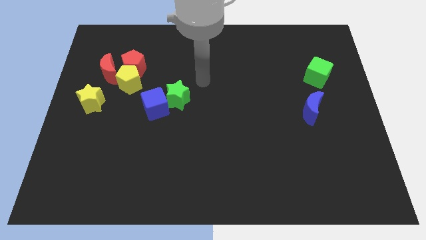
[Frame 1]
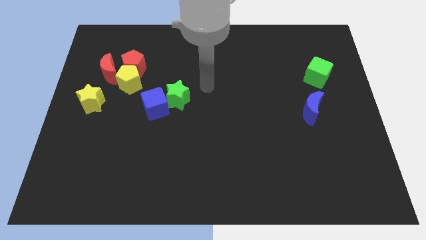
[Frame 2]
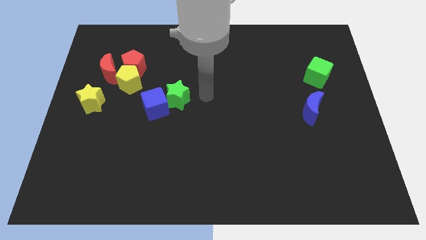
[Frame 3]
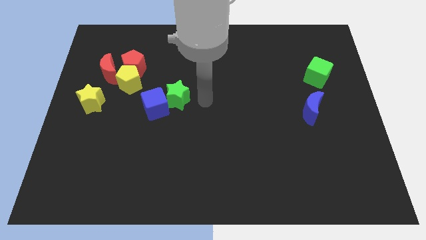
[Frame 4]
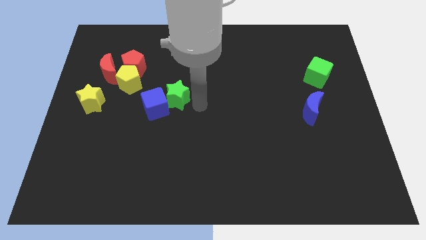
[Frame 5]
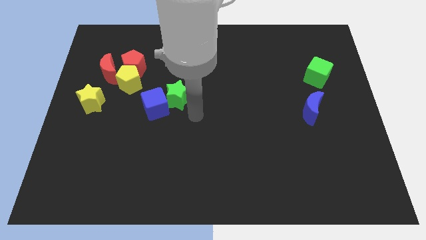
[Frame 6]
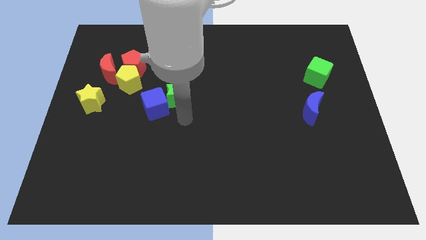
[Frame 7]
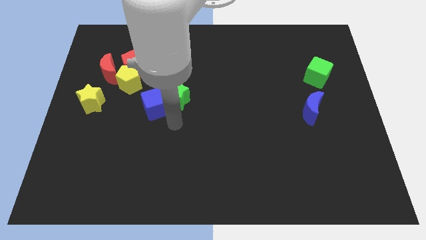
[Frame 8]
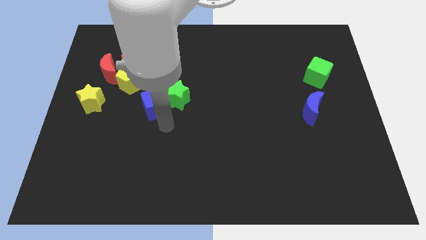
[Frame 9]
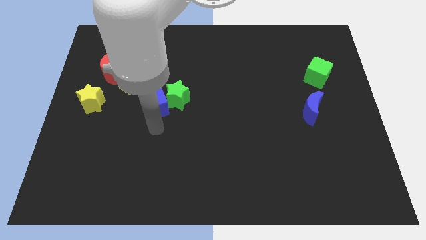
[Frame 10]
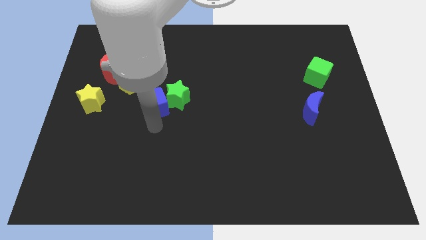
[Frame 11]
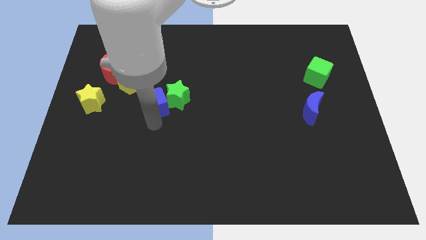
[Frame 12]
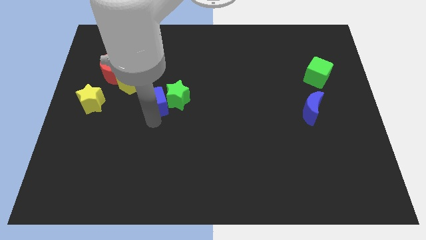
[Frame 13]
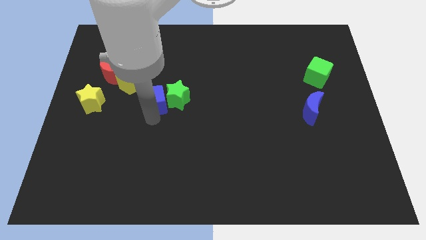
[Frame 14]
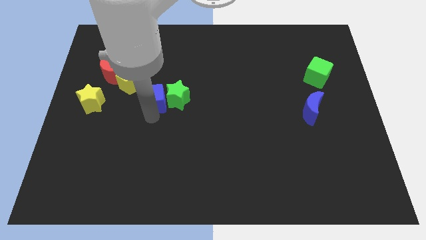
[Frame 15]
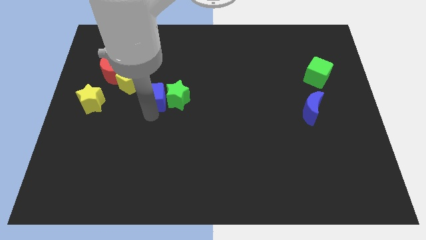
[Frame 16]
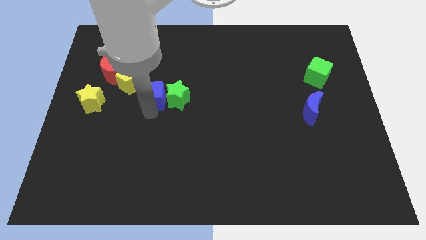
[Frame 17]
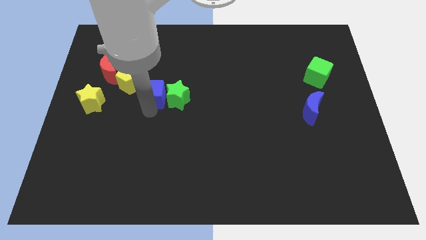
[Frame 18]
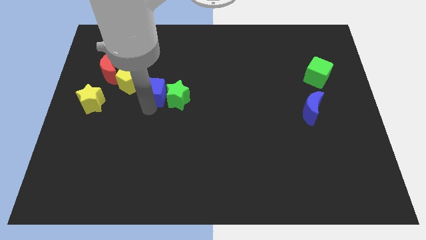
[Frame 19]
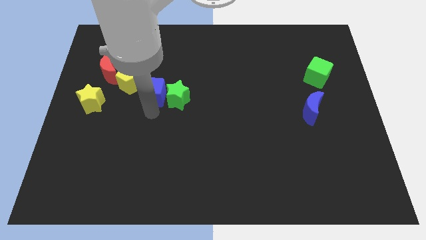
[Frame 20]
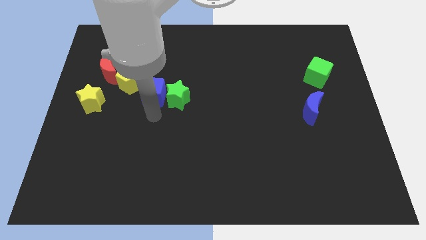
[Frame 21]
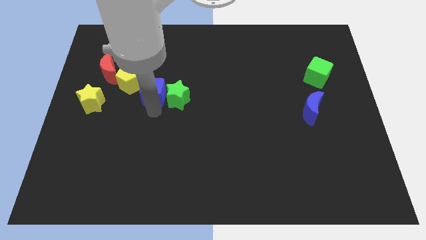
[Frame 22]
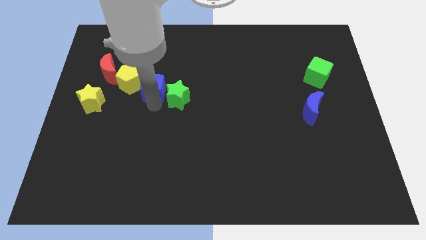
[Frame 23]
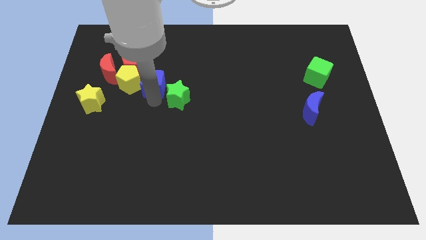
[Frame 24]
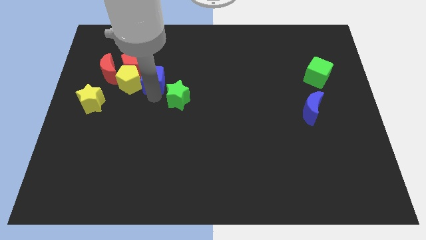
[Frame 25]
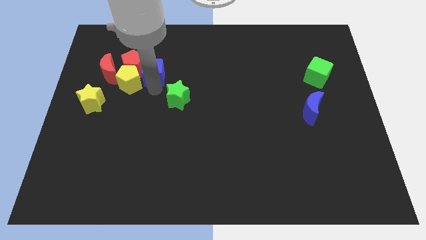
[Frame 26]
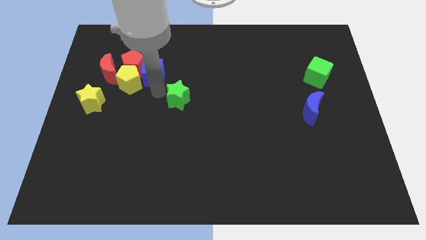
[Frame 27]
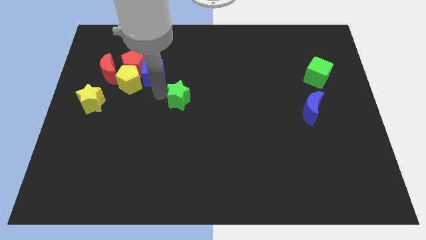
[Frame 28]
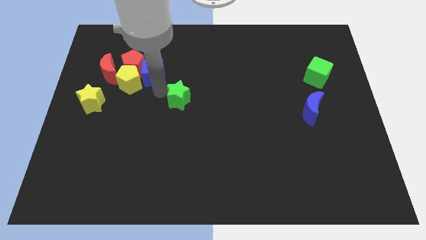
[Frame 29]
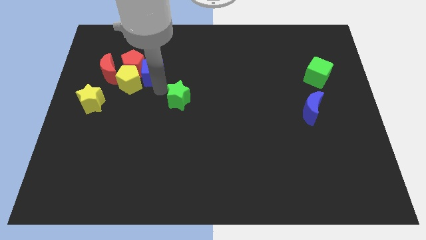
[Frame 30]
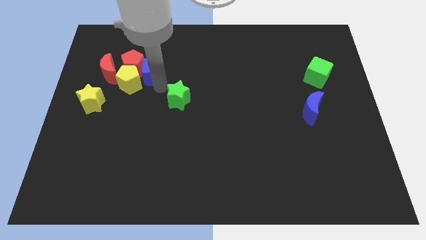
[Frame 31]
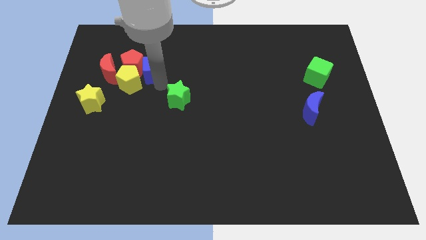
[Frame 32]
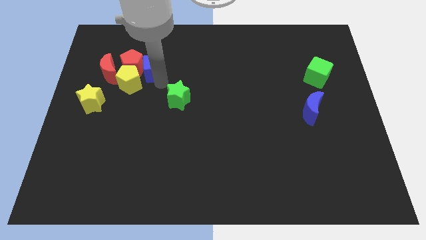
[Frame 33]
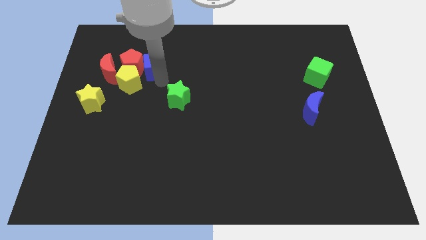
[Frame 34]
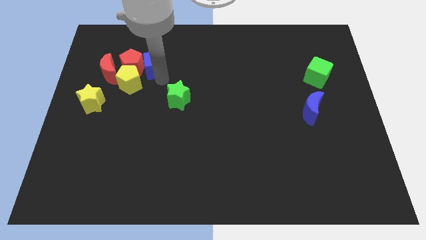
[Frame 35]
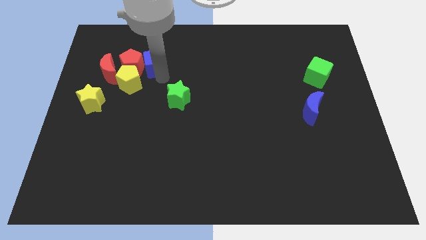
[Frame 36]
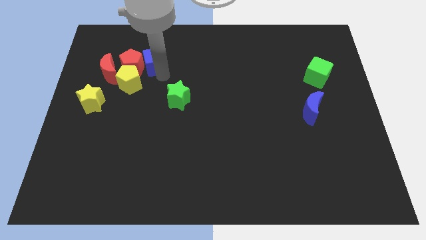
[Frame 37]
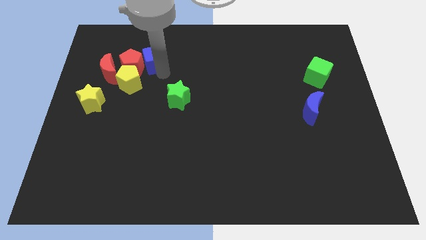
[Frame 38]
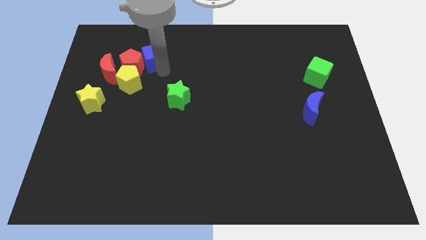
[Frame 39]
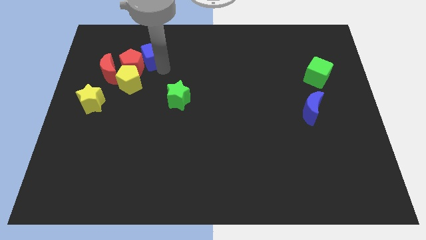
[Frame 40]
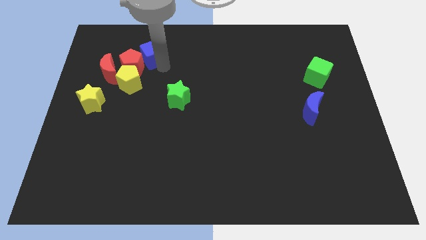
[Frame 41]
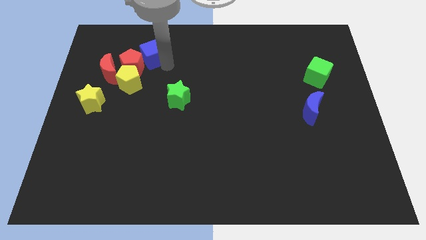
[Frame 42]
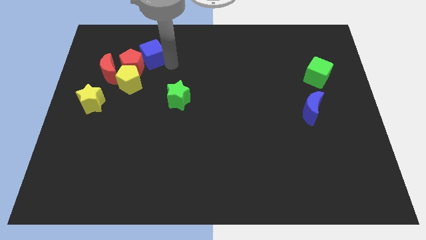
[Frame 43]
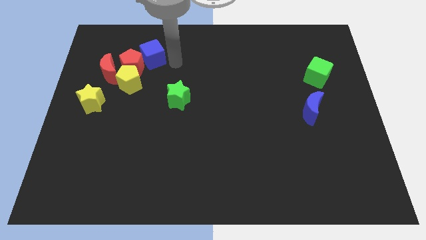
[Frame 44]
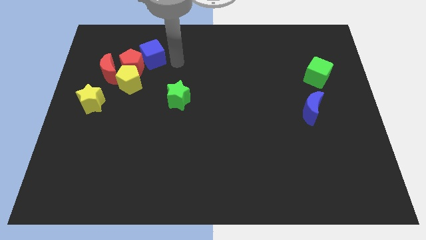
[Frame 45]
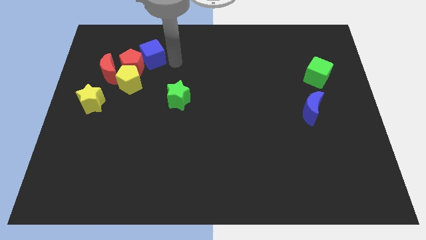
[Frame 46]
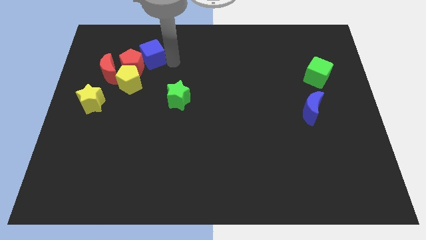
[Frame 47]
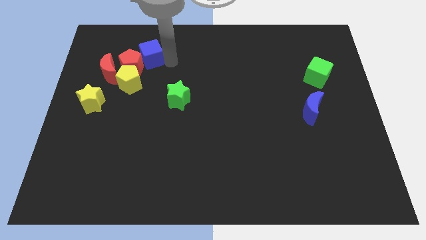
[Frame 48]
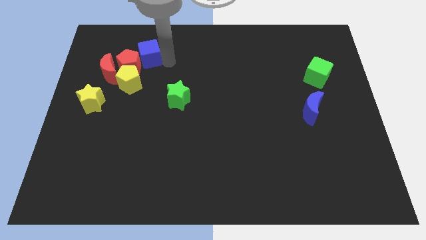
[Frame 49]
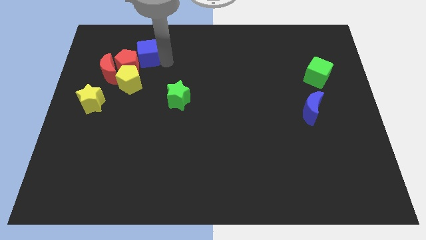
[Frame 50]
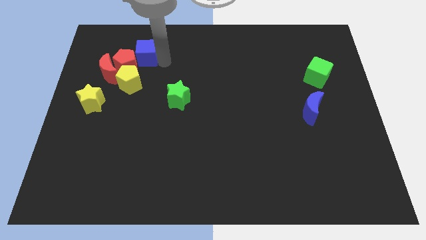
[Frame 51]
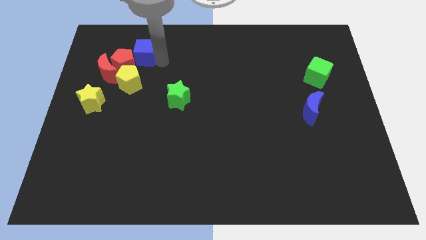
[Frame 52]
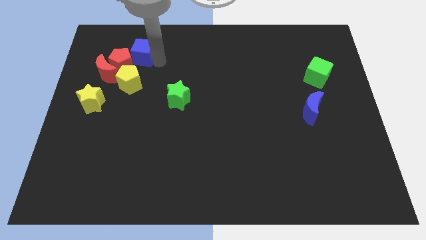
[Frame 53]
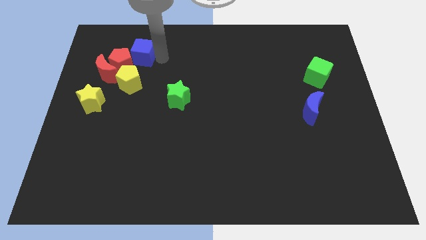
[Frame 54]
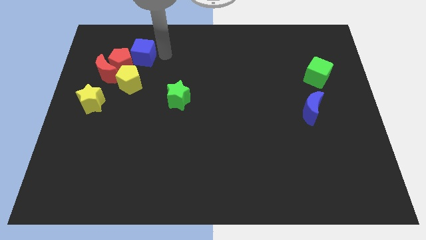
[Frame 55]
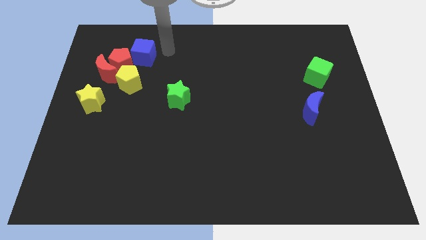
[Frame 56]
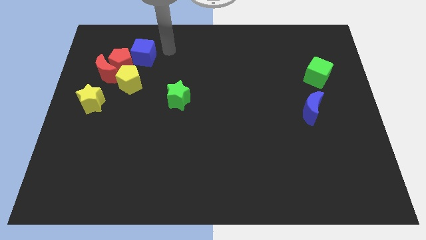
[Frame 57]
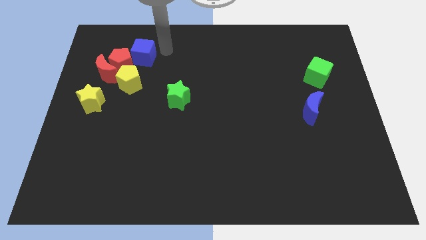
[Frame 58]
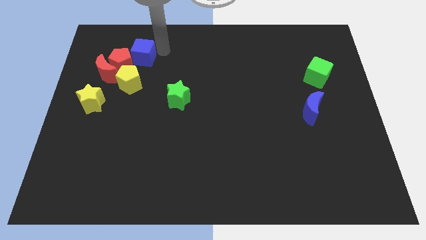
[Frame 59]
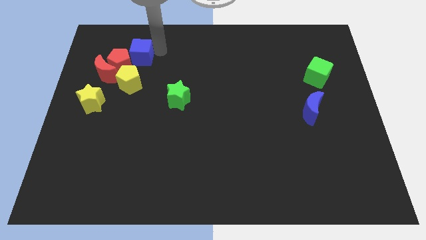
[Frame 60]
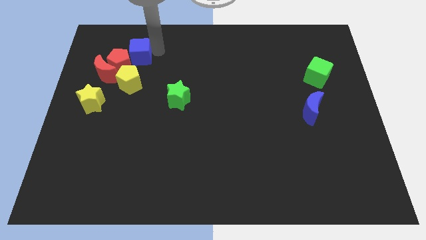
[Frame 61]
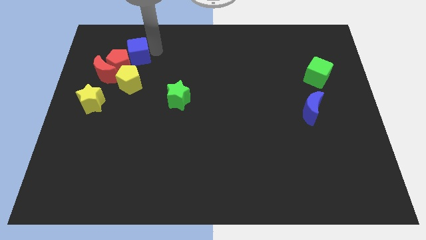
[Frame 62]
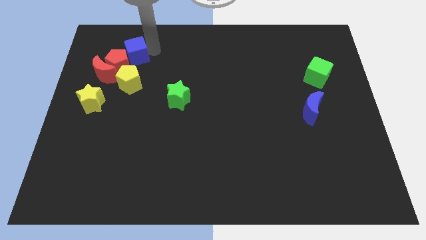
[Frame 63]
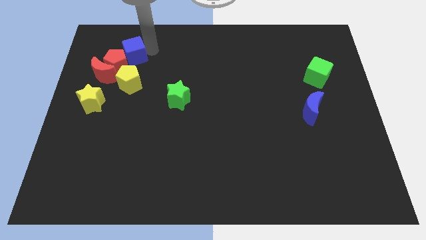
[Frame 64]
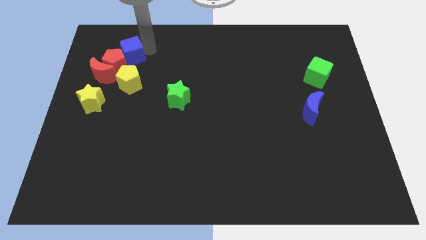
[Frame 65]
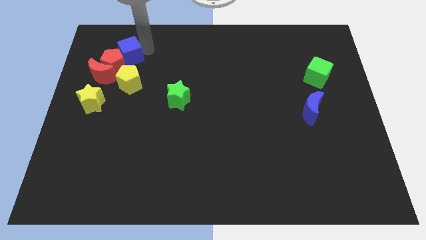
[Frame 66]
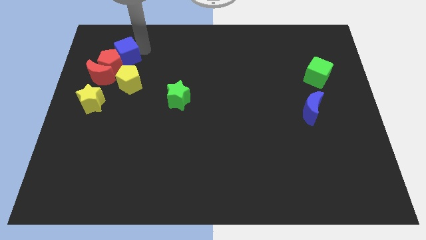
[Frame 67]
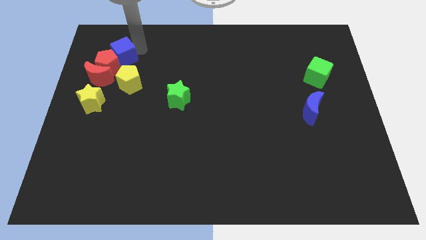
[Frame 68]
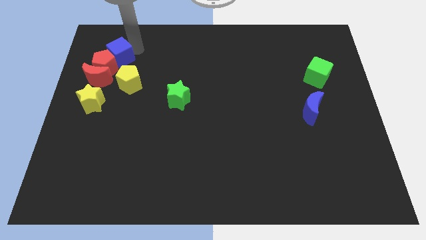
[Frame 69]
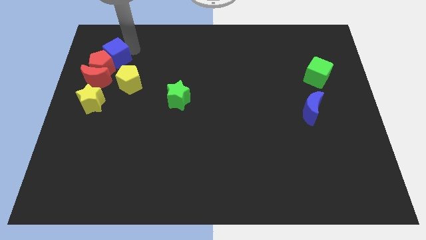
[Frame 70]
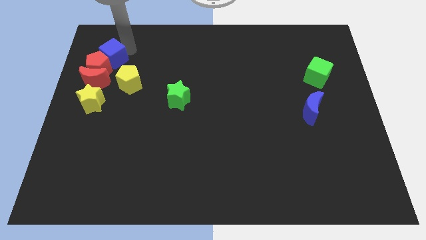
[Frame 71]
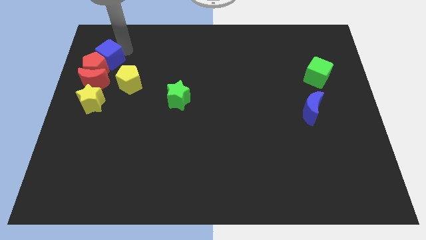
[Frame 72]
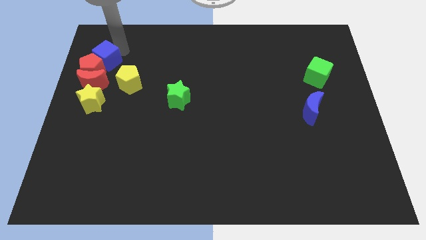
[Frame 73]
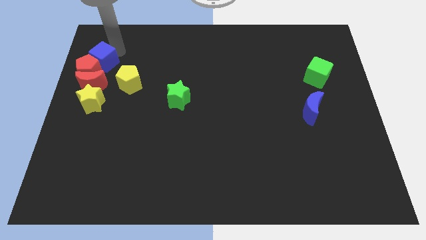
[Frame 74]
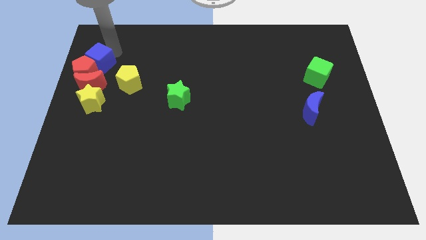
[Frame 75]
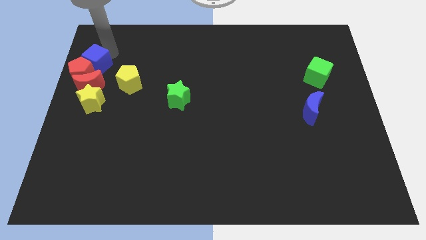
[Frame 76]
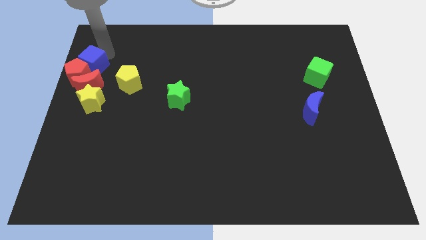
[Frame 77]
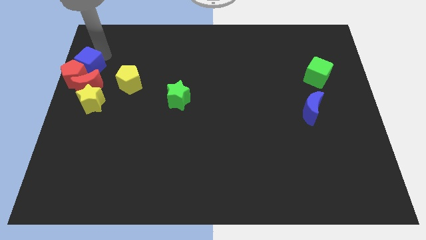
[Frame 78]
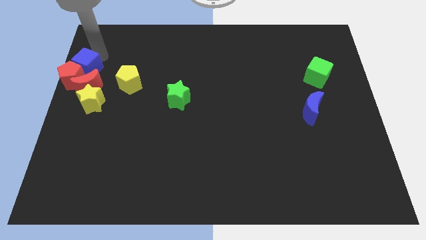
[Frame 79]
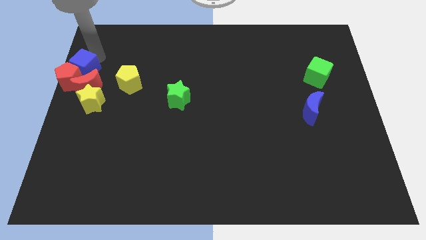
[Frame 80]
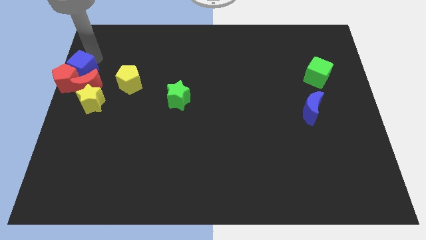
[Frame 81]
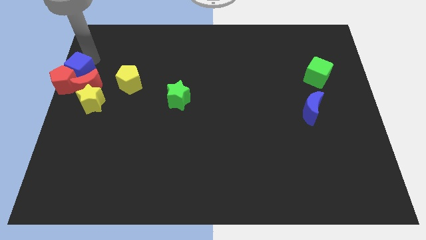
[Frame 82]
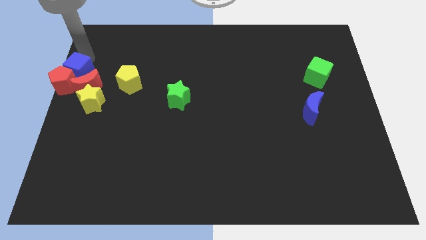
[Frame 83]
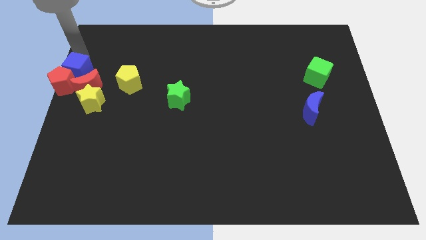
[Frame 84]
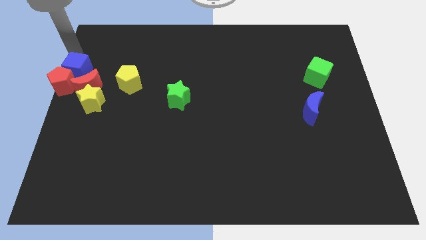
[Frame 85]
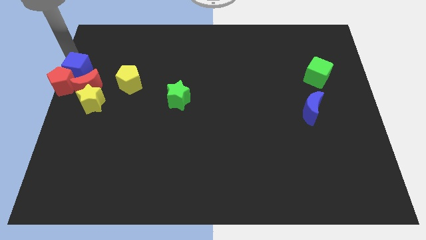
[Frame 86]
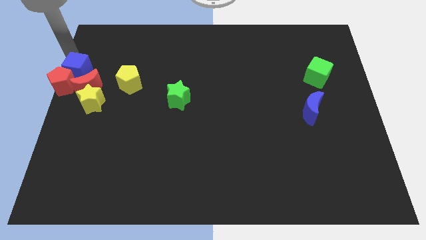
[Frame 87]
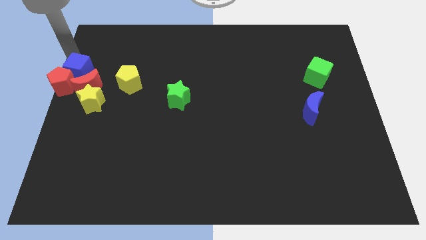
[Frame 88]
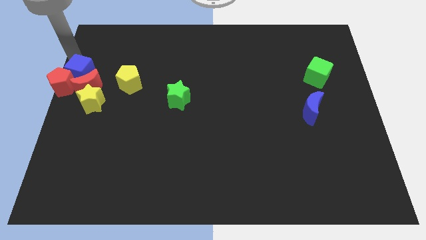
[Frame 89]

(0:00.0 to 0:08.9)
move the blue cube to the red moon
